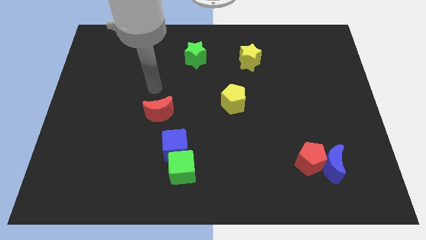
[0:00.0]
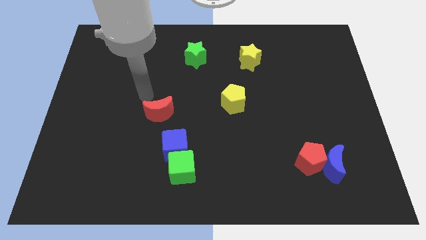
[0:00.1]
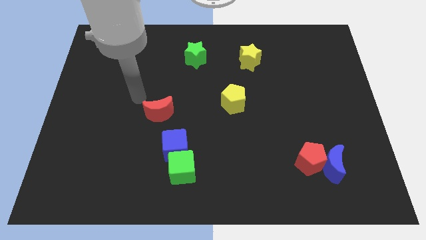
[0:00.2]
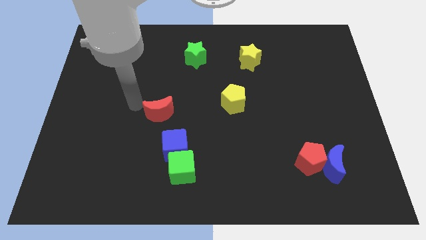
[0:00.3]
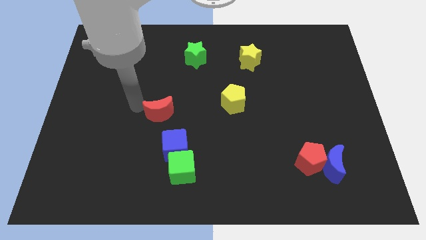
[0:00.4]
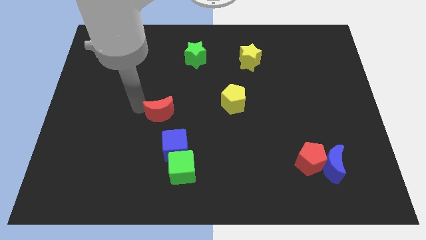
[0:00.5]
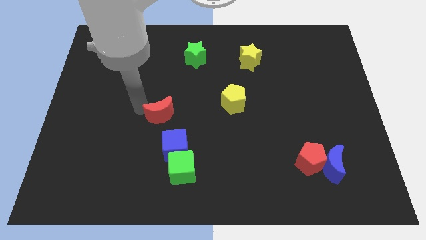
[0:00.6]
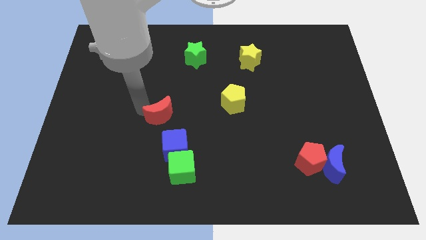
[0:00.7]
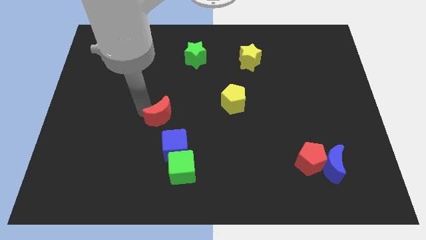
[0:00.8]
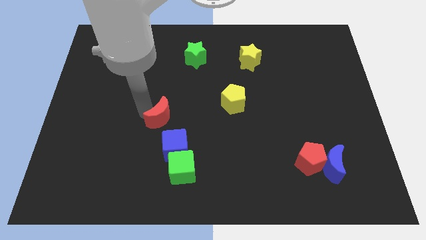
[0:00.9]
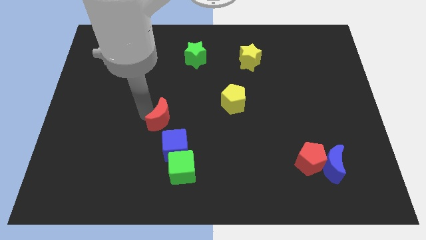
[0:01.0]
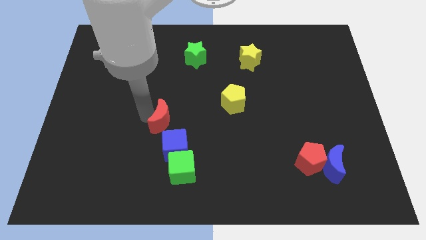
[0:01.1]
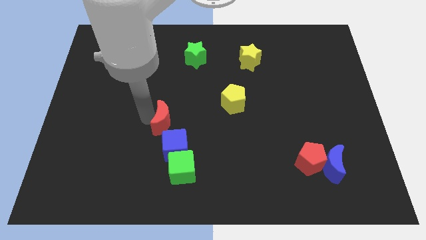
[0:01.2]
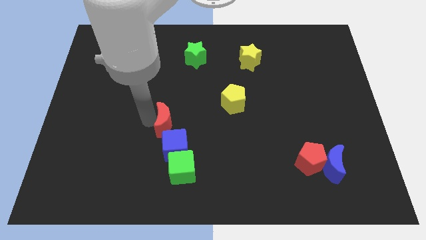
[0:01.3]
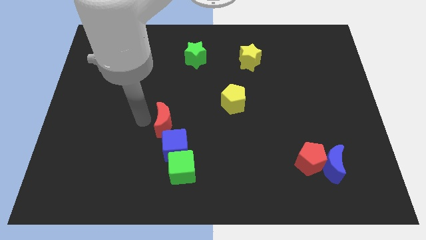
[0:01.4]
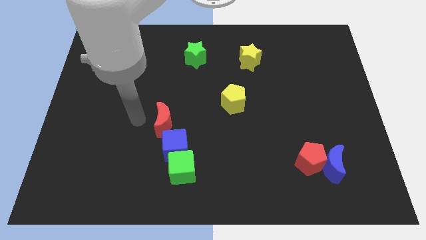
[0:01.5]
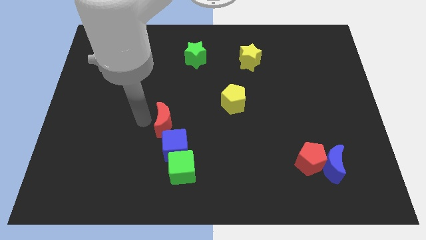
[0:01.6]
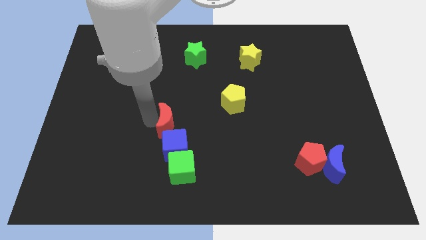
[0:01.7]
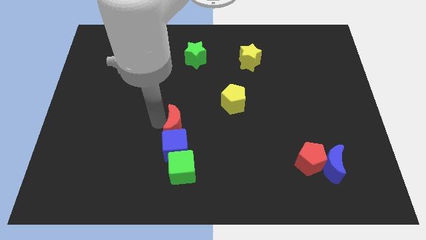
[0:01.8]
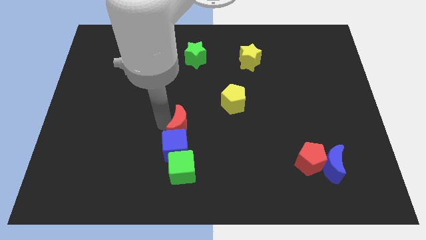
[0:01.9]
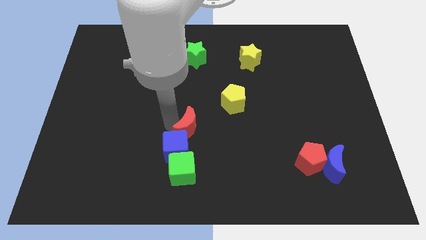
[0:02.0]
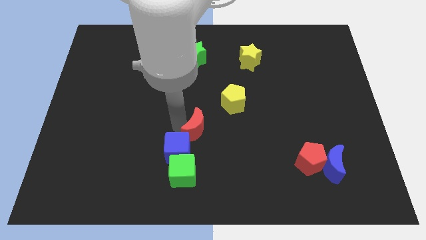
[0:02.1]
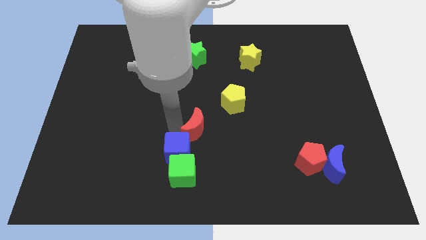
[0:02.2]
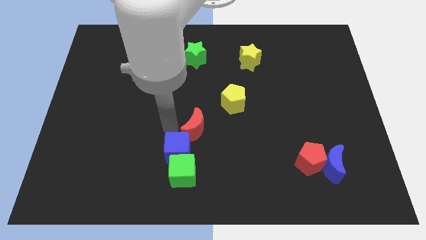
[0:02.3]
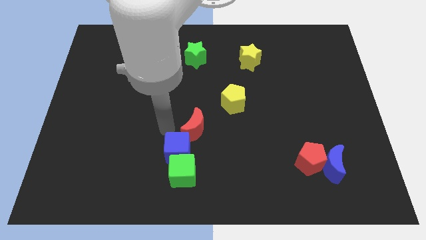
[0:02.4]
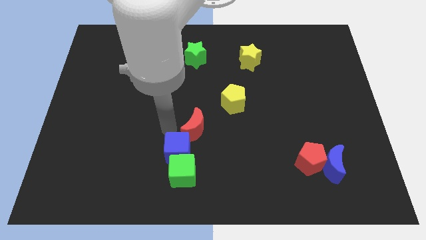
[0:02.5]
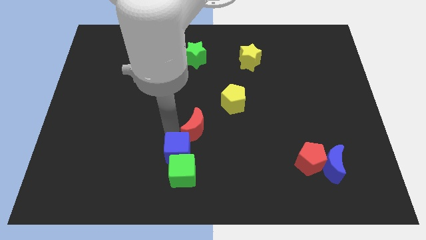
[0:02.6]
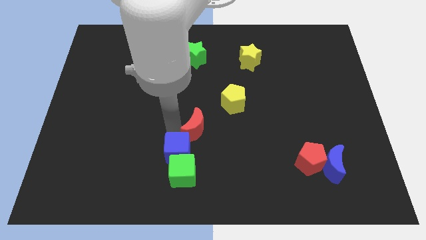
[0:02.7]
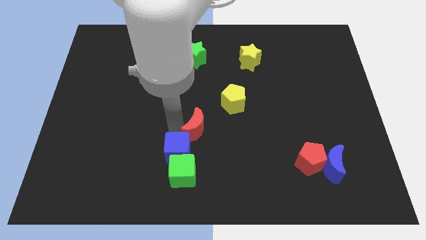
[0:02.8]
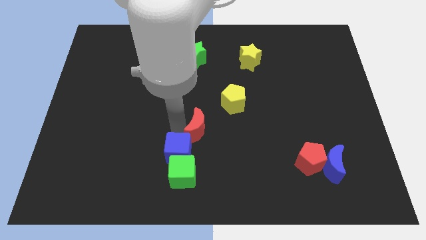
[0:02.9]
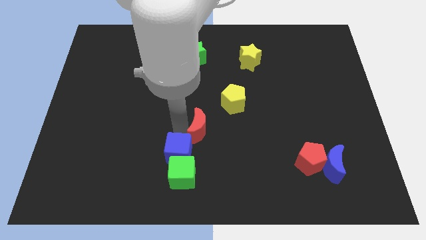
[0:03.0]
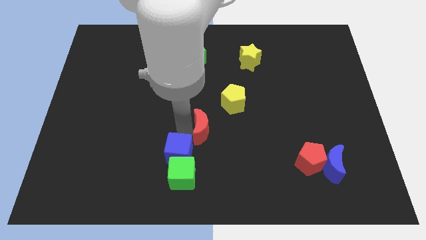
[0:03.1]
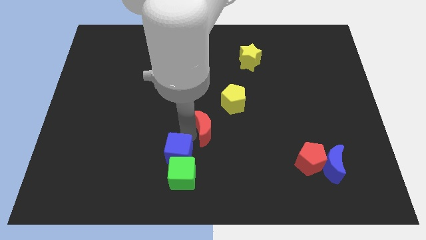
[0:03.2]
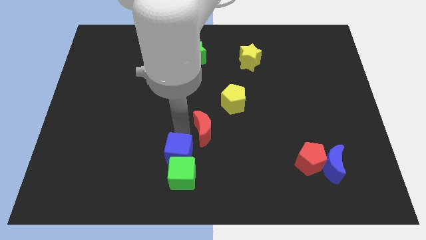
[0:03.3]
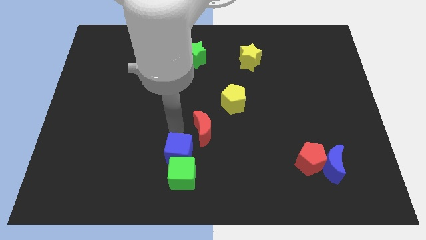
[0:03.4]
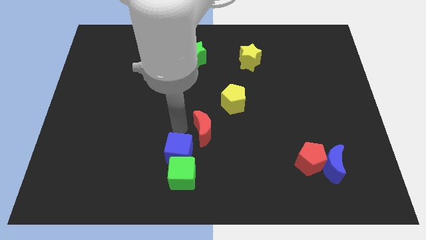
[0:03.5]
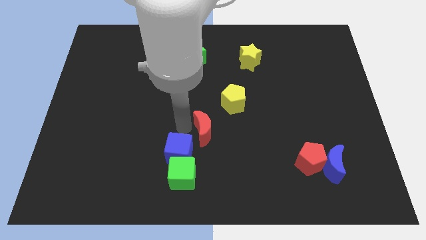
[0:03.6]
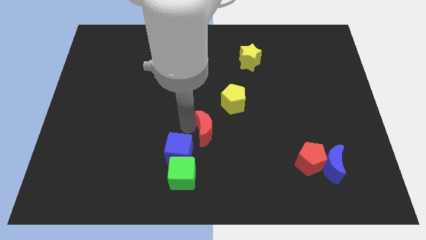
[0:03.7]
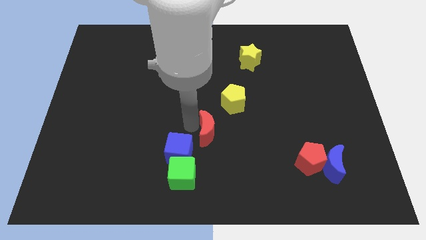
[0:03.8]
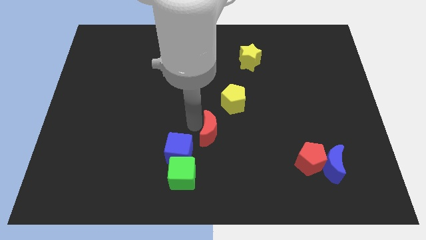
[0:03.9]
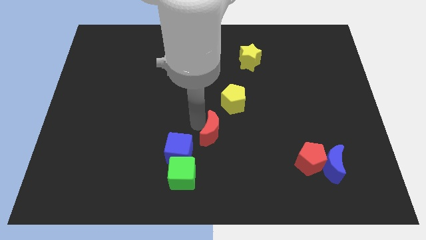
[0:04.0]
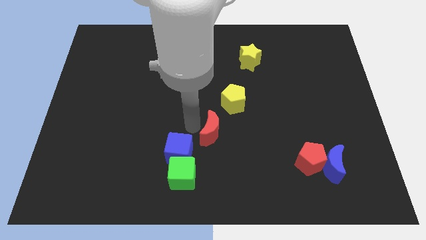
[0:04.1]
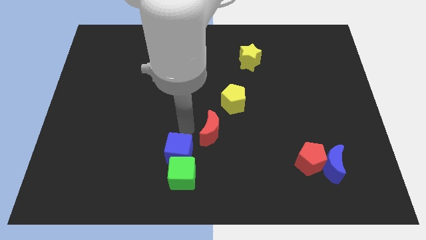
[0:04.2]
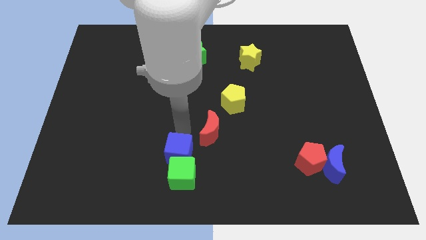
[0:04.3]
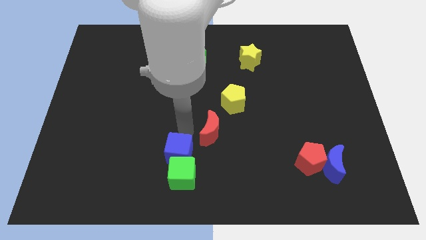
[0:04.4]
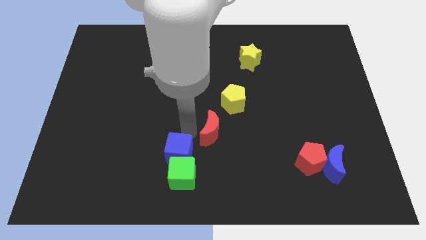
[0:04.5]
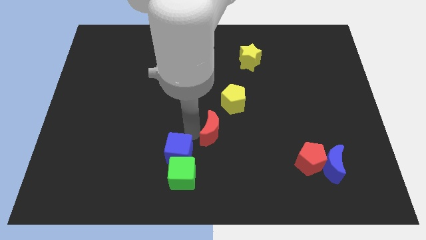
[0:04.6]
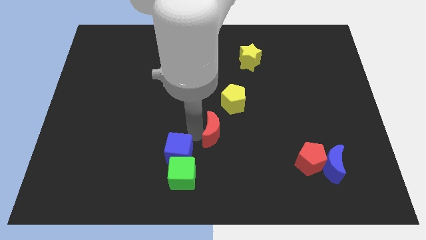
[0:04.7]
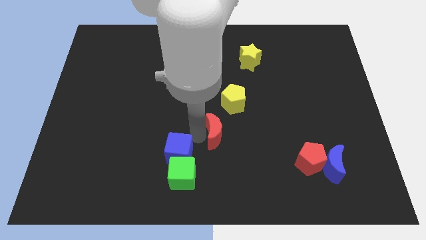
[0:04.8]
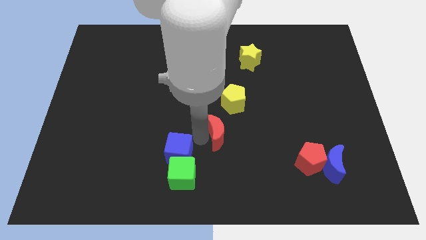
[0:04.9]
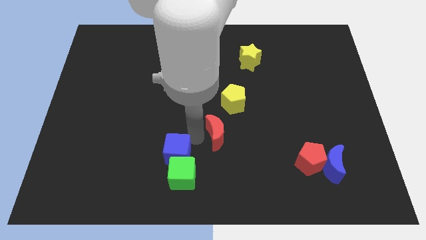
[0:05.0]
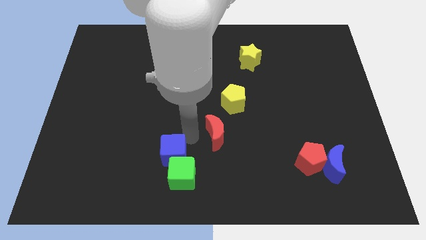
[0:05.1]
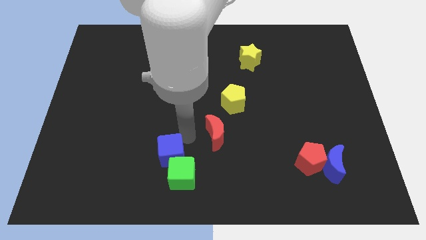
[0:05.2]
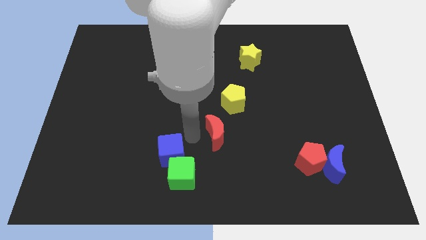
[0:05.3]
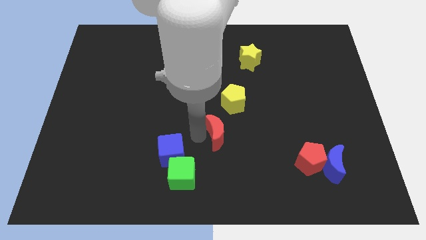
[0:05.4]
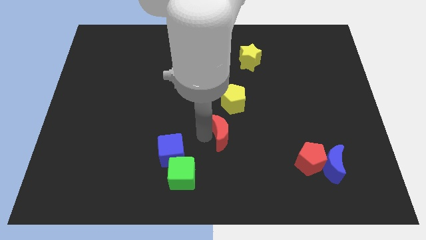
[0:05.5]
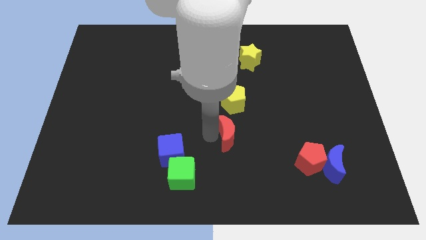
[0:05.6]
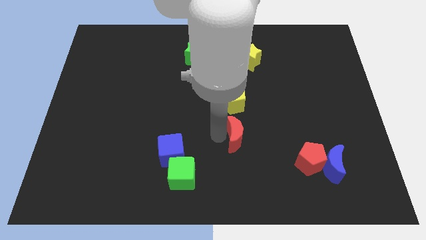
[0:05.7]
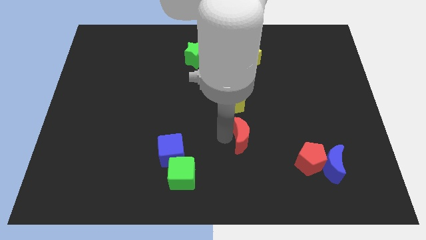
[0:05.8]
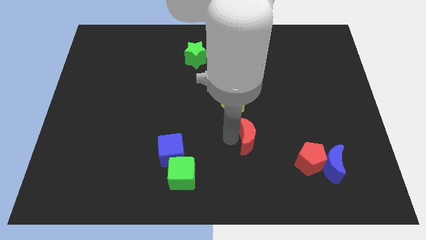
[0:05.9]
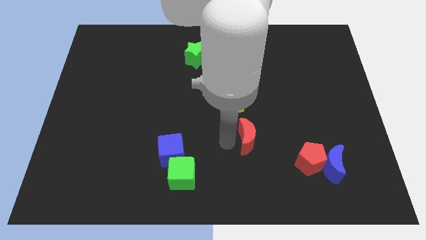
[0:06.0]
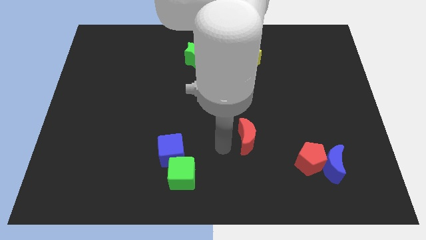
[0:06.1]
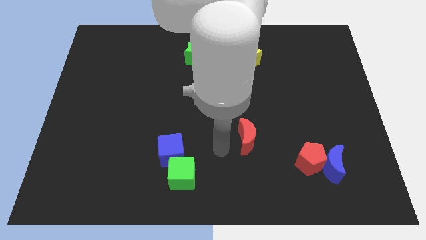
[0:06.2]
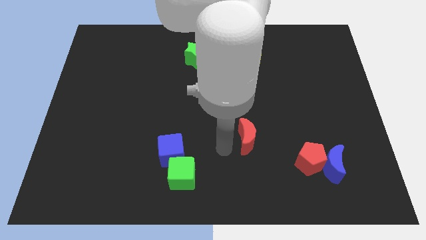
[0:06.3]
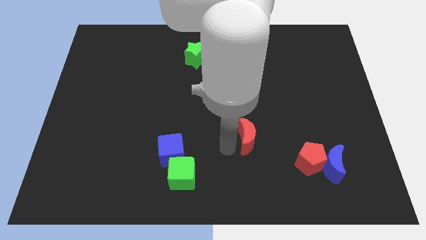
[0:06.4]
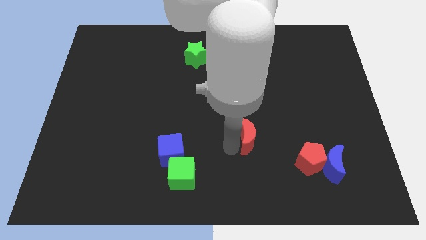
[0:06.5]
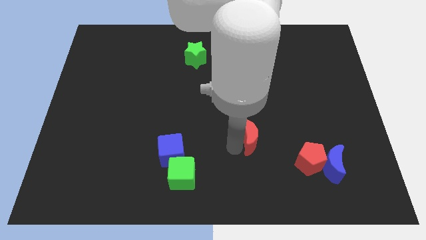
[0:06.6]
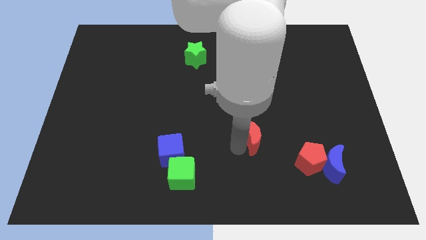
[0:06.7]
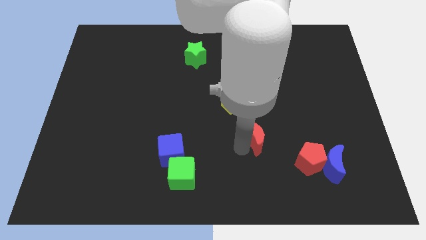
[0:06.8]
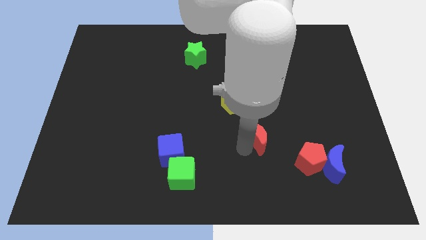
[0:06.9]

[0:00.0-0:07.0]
move the red moon right

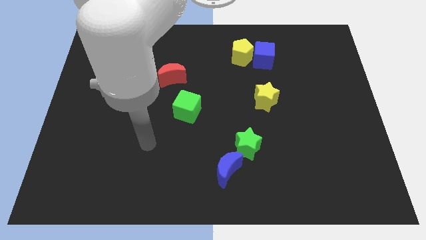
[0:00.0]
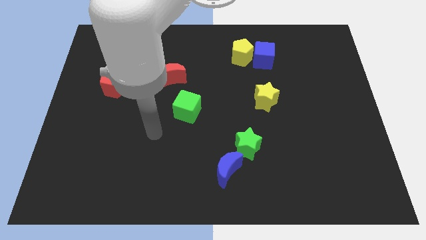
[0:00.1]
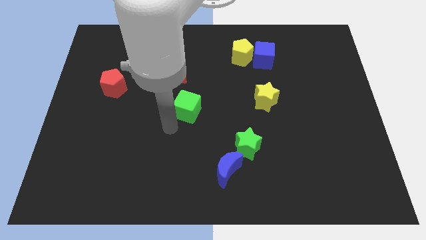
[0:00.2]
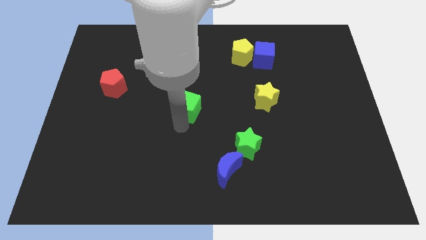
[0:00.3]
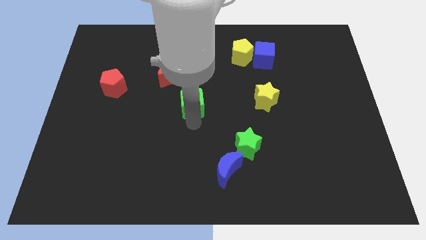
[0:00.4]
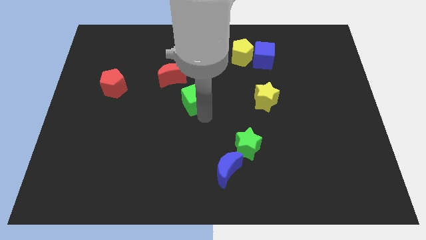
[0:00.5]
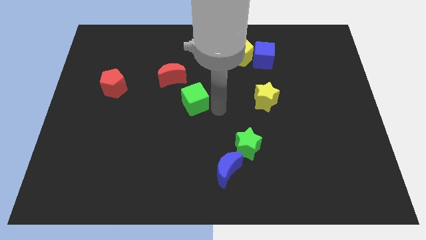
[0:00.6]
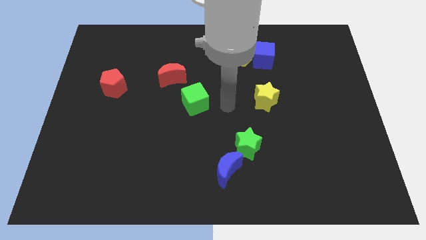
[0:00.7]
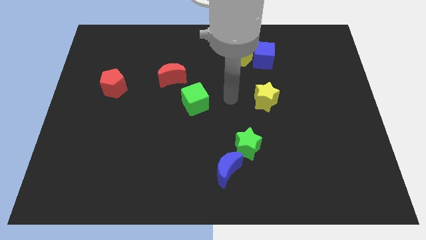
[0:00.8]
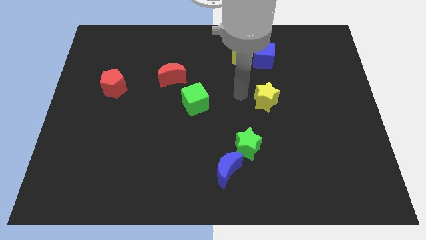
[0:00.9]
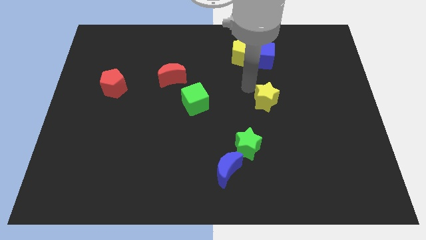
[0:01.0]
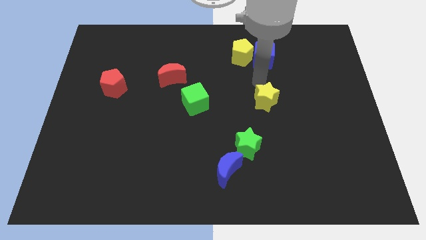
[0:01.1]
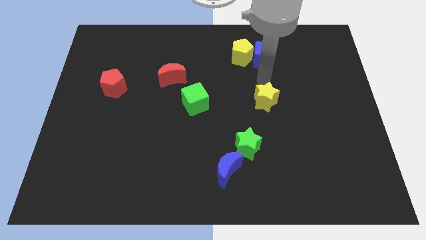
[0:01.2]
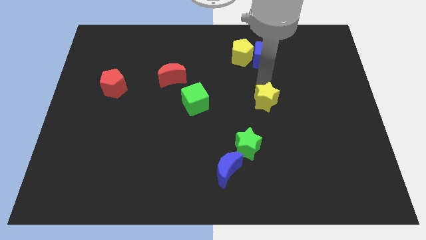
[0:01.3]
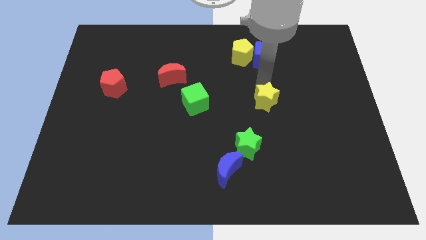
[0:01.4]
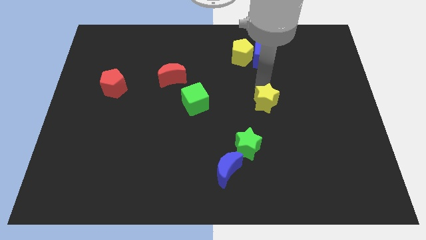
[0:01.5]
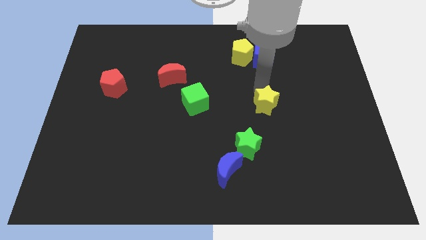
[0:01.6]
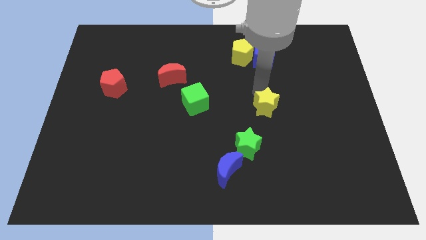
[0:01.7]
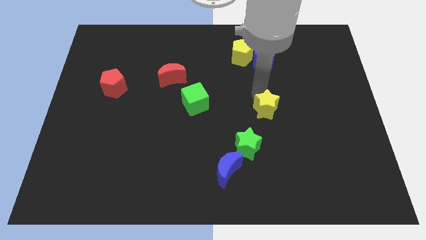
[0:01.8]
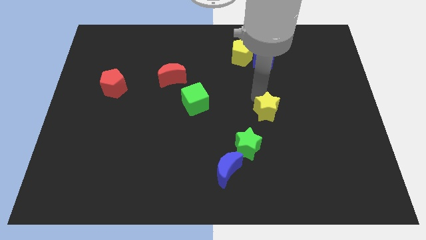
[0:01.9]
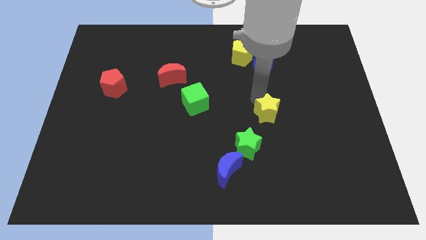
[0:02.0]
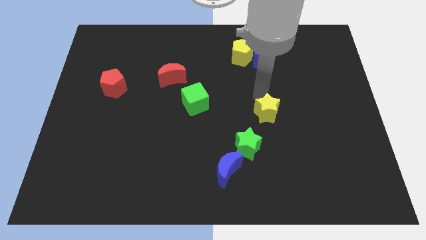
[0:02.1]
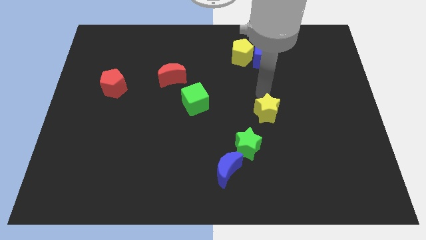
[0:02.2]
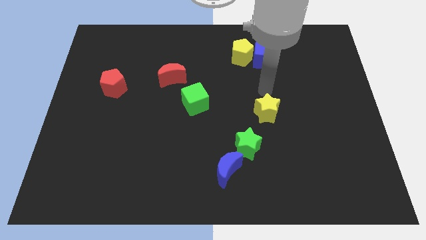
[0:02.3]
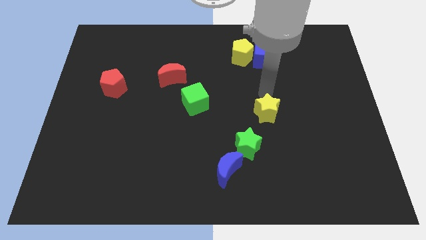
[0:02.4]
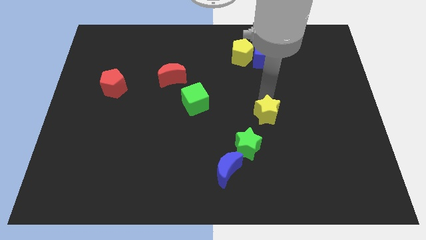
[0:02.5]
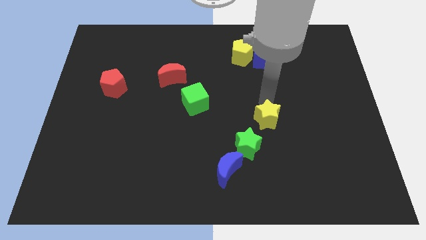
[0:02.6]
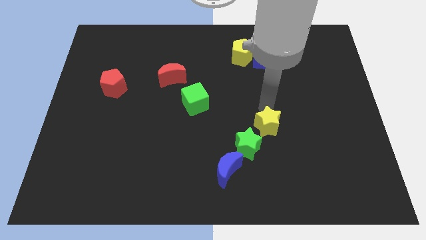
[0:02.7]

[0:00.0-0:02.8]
slightly move the yellow star down
